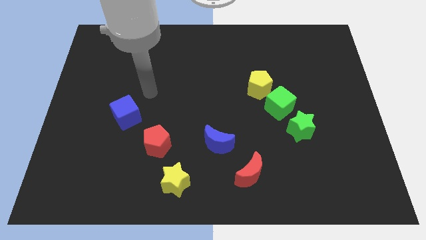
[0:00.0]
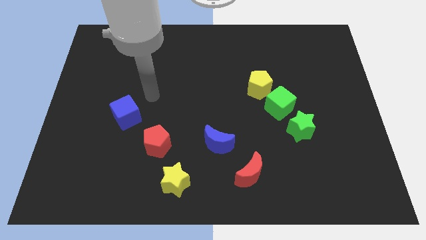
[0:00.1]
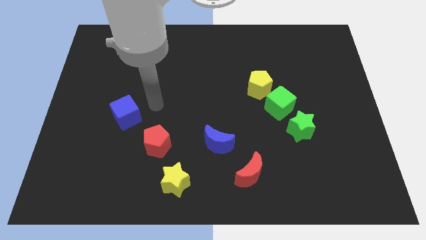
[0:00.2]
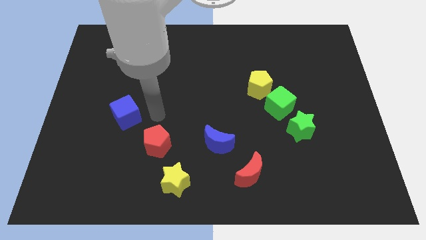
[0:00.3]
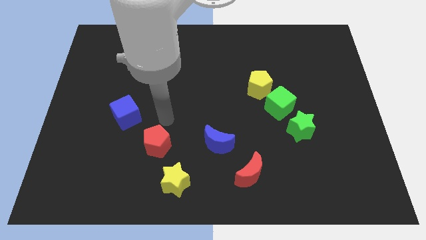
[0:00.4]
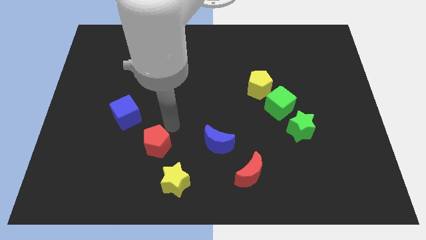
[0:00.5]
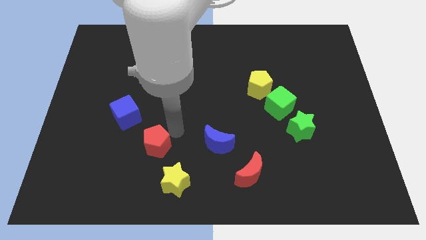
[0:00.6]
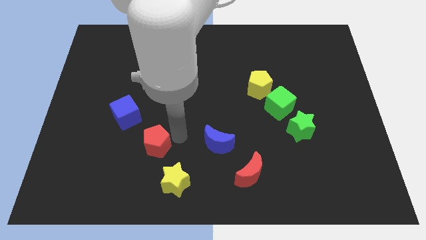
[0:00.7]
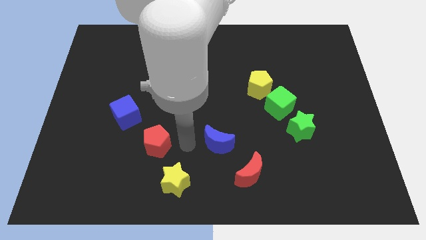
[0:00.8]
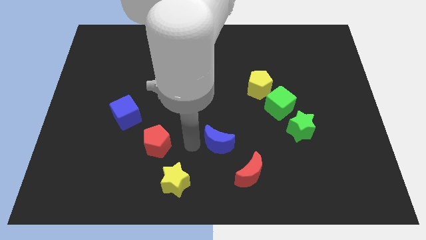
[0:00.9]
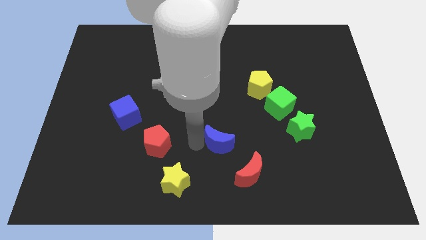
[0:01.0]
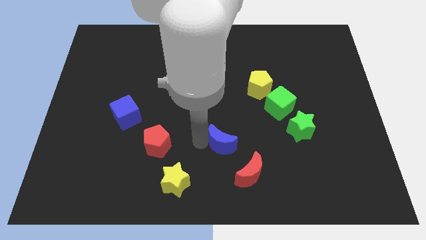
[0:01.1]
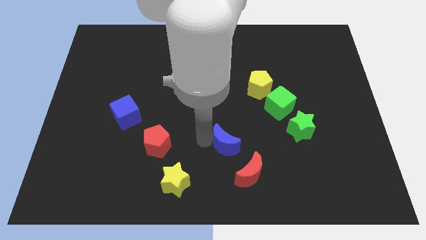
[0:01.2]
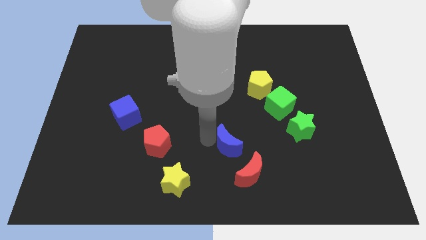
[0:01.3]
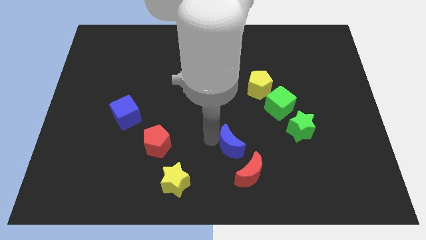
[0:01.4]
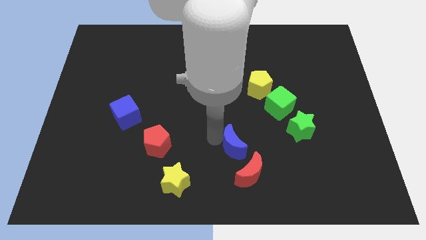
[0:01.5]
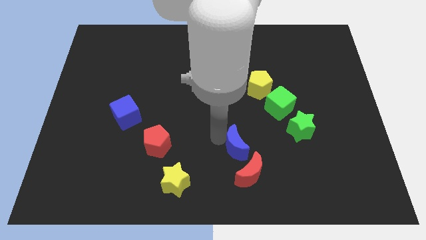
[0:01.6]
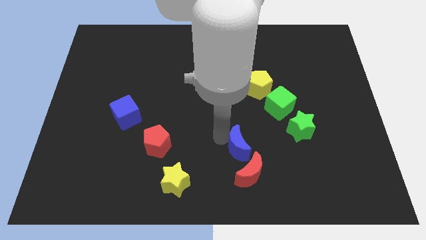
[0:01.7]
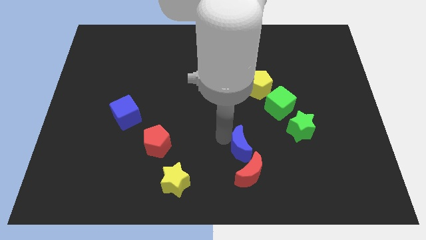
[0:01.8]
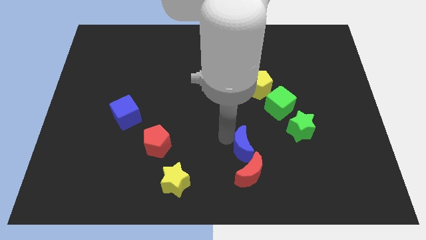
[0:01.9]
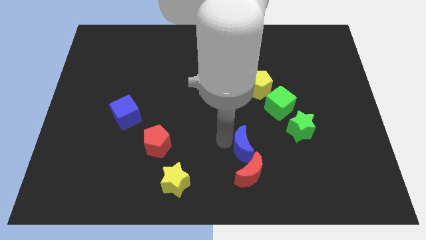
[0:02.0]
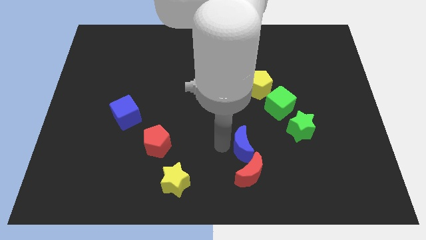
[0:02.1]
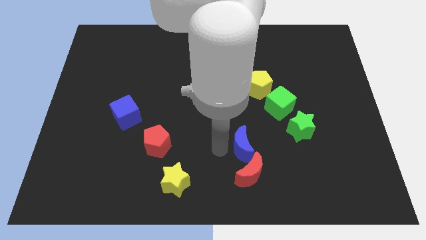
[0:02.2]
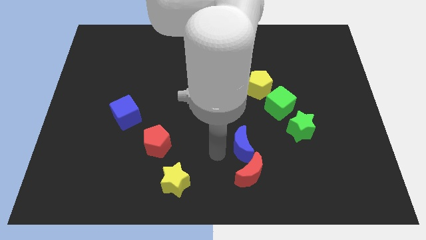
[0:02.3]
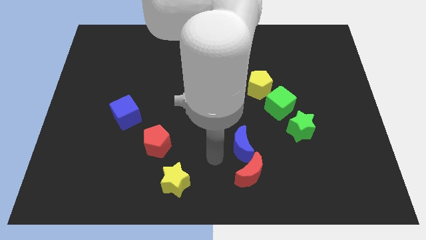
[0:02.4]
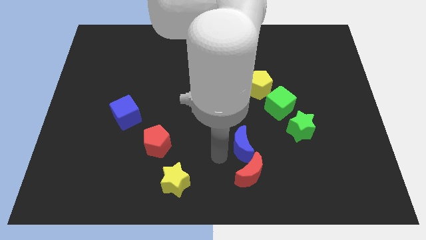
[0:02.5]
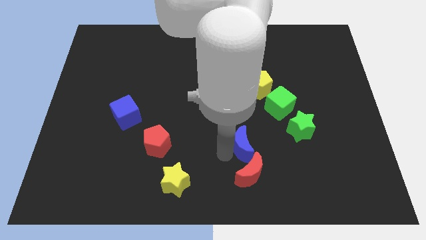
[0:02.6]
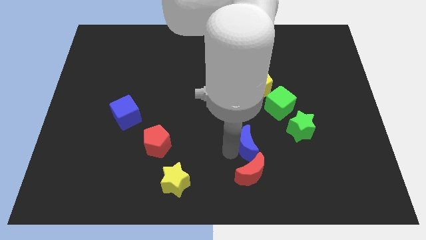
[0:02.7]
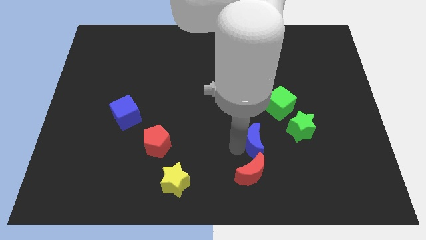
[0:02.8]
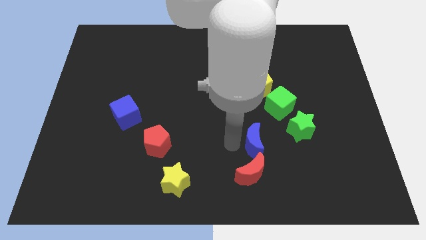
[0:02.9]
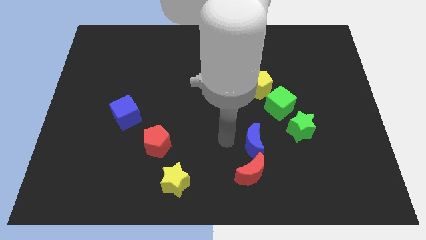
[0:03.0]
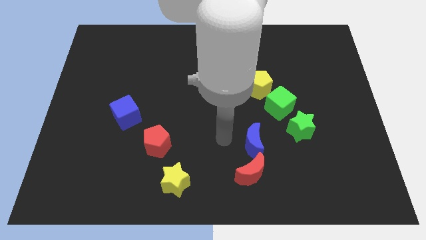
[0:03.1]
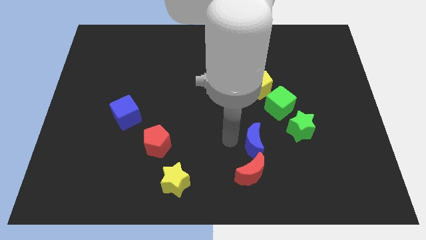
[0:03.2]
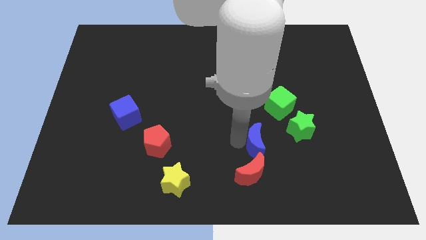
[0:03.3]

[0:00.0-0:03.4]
slide the blue moon diagonally down and to the left of the green star

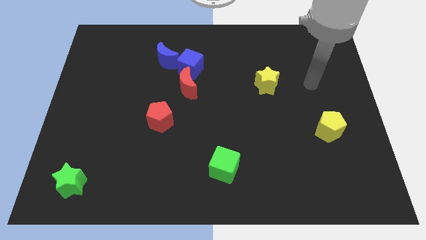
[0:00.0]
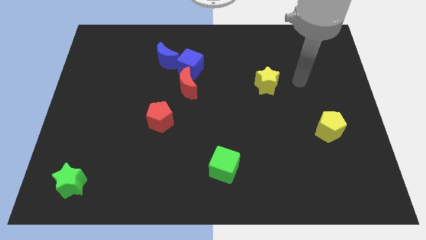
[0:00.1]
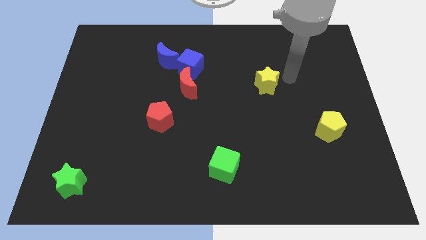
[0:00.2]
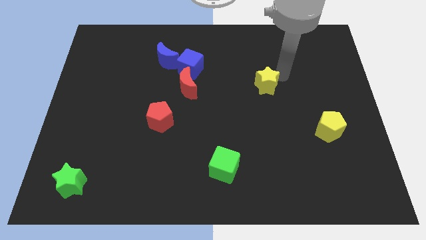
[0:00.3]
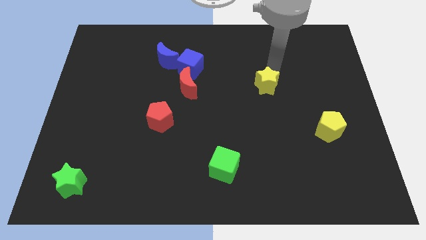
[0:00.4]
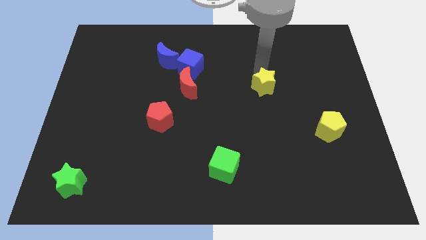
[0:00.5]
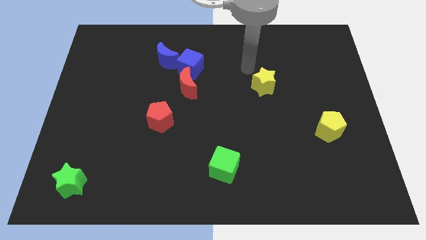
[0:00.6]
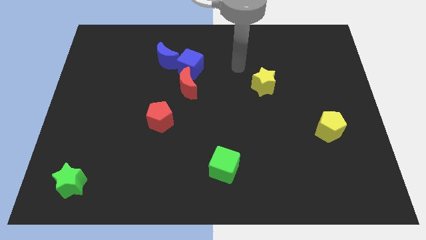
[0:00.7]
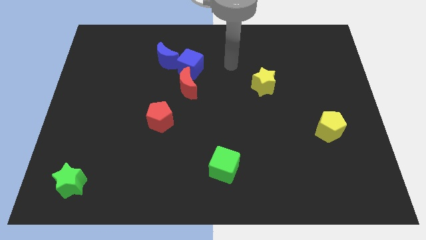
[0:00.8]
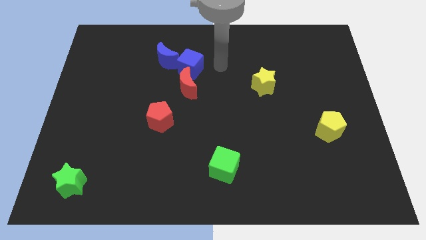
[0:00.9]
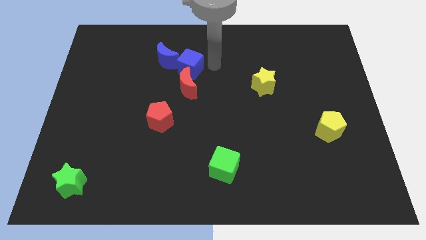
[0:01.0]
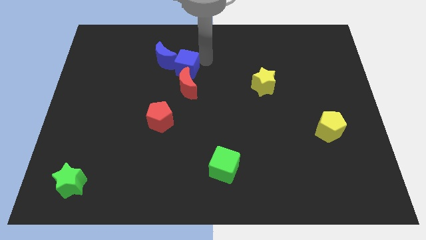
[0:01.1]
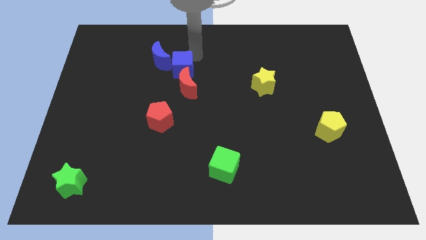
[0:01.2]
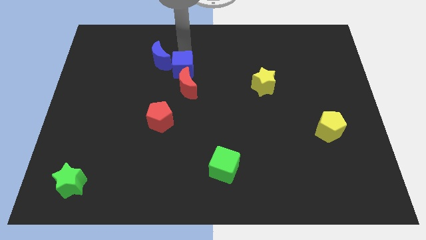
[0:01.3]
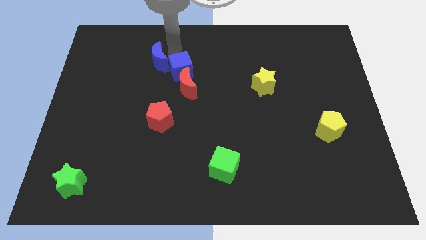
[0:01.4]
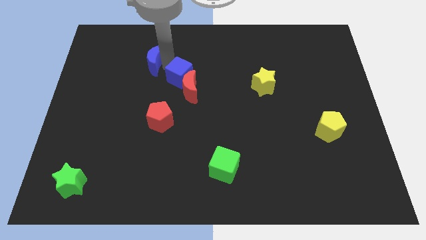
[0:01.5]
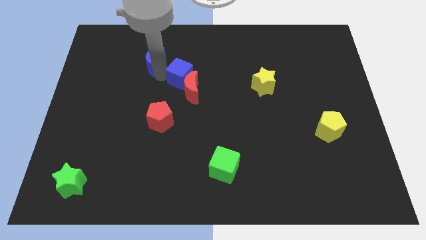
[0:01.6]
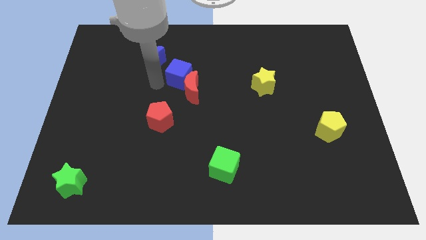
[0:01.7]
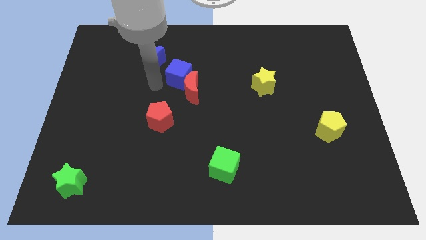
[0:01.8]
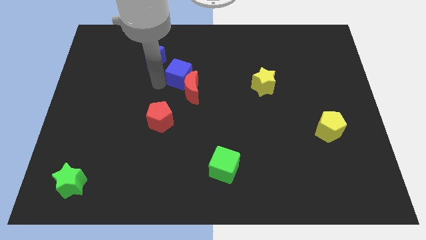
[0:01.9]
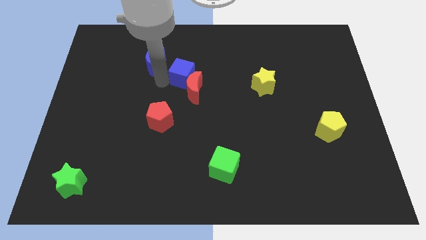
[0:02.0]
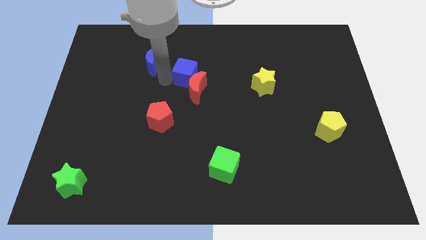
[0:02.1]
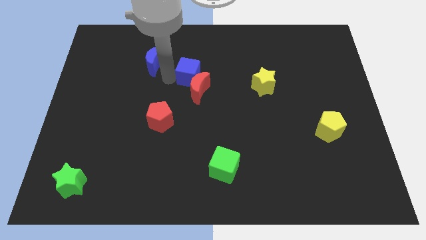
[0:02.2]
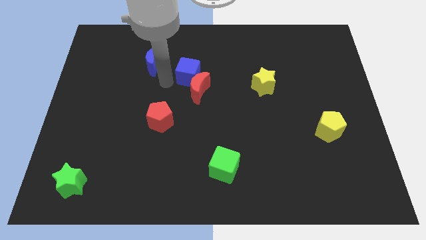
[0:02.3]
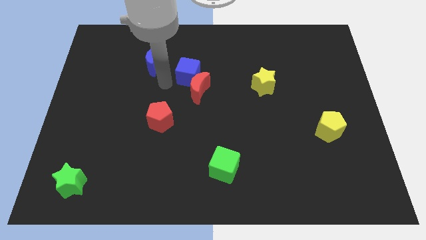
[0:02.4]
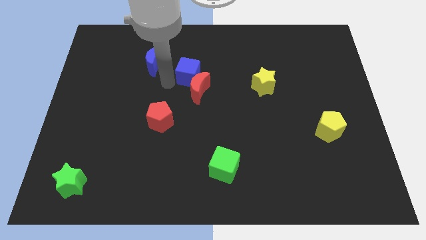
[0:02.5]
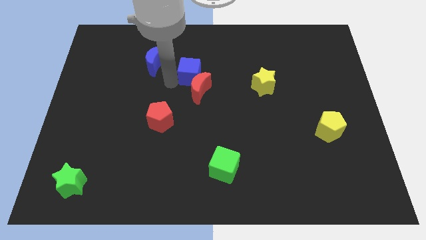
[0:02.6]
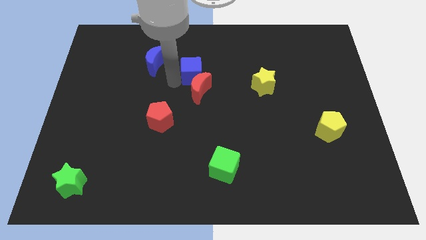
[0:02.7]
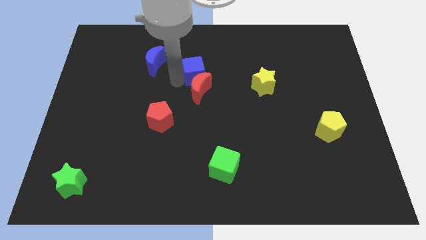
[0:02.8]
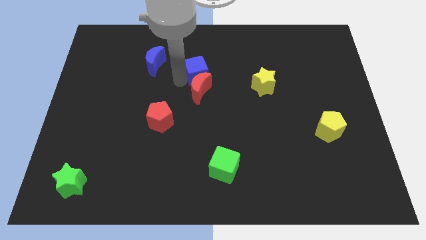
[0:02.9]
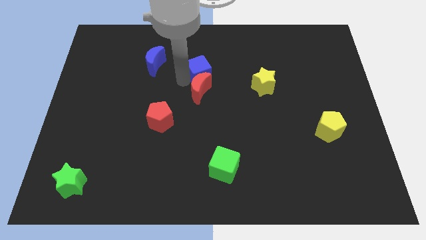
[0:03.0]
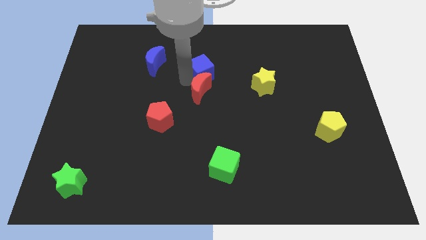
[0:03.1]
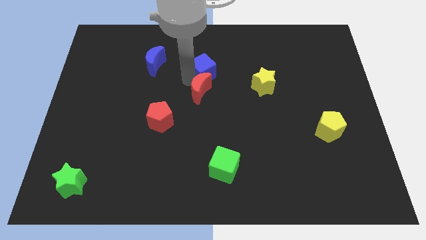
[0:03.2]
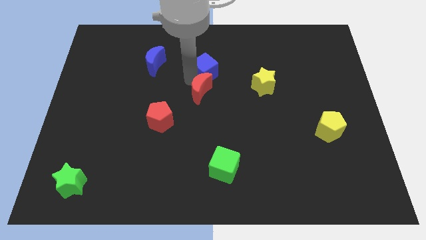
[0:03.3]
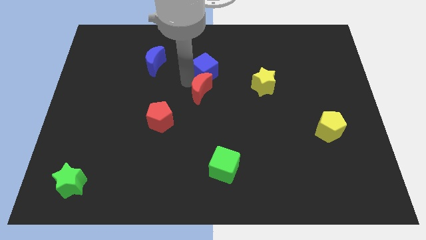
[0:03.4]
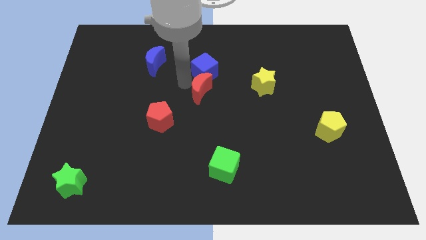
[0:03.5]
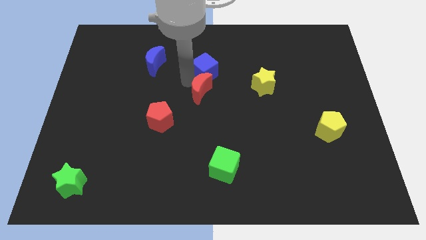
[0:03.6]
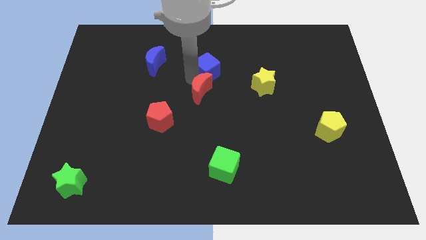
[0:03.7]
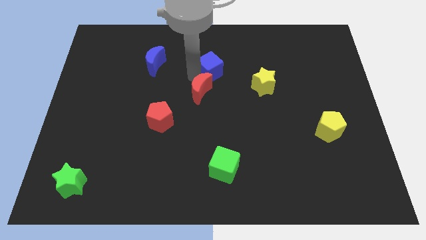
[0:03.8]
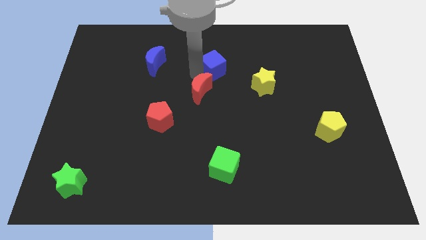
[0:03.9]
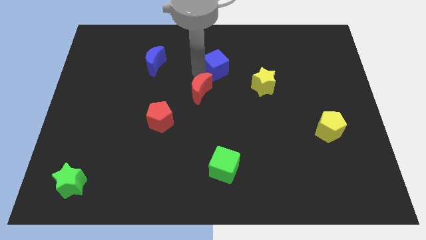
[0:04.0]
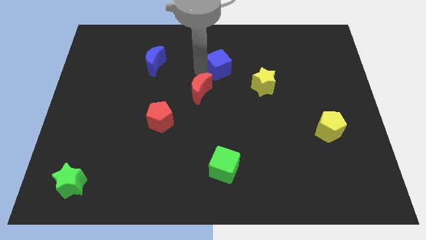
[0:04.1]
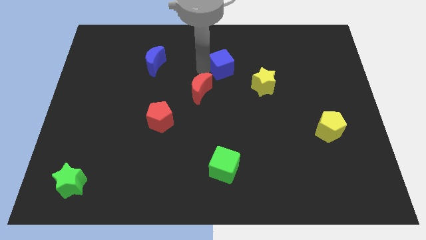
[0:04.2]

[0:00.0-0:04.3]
push the blue cube to the top left of the yellow star
